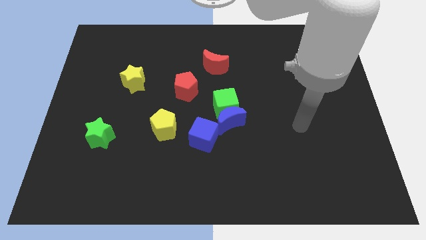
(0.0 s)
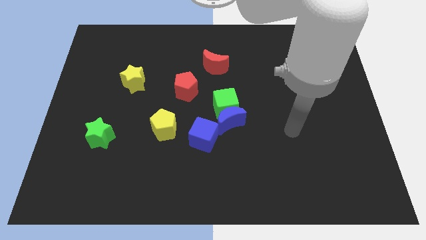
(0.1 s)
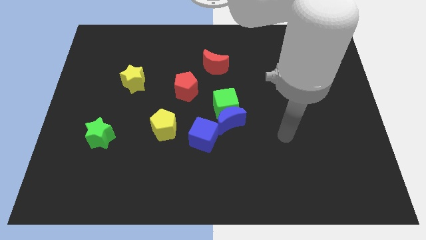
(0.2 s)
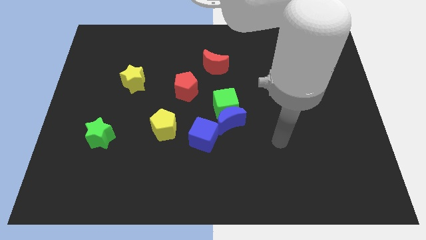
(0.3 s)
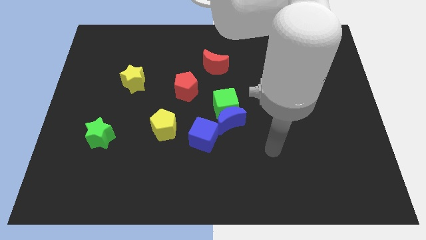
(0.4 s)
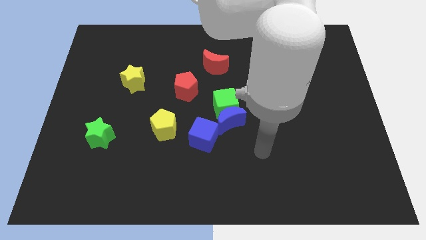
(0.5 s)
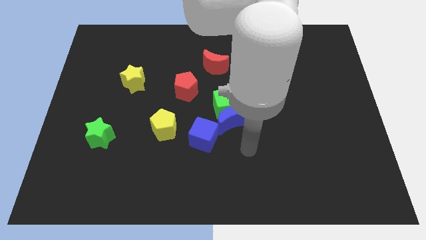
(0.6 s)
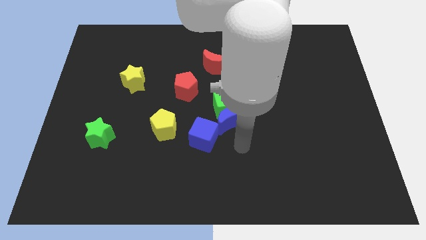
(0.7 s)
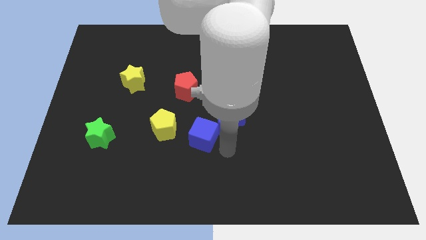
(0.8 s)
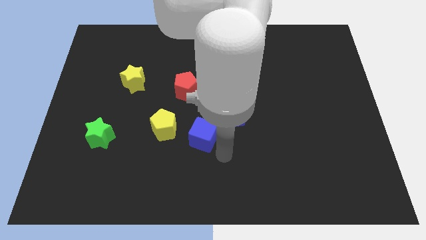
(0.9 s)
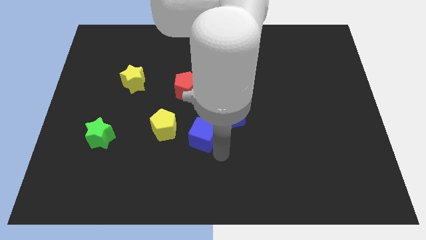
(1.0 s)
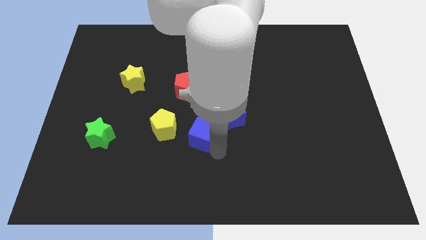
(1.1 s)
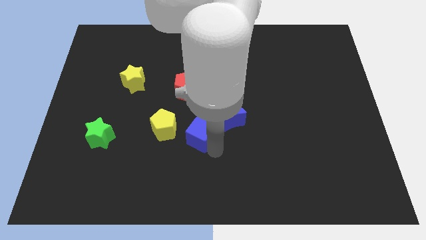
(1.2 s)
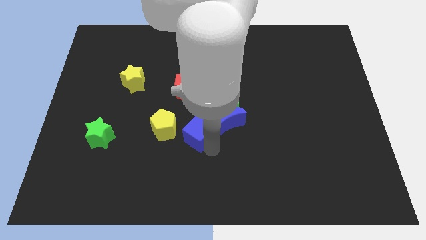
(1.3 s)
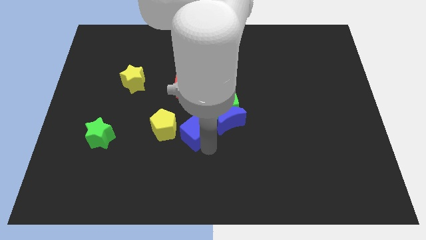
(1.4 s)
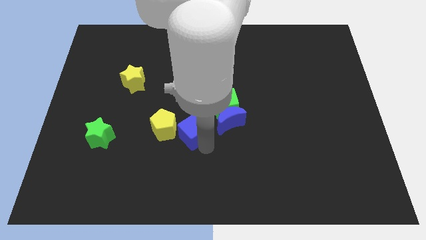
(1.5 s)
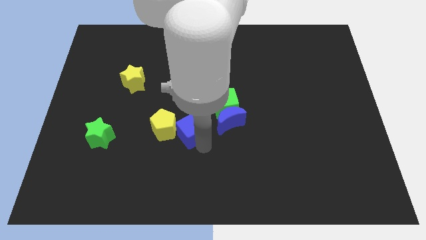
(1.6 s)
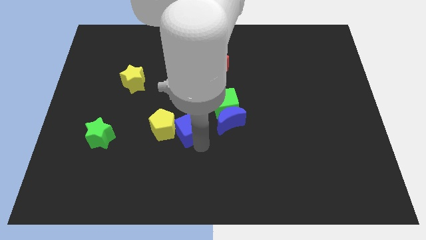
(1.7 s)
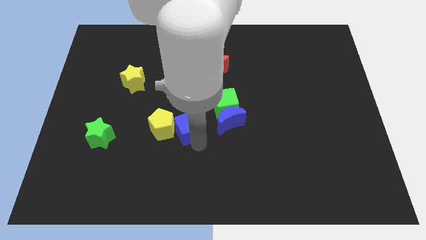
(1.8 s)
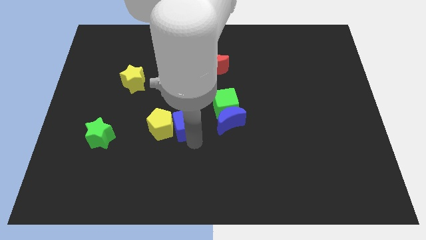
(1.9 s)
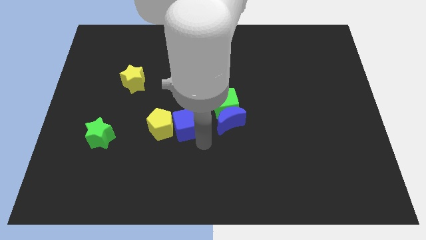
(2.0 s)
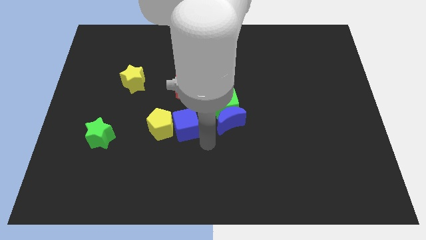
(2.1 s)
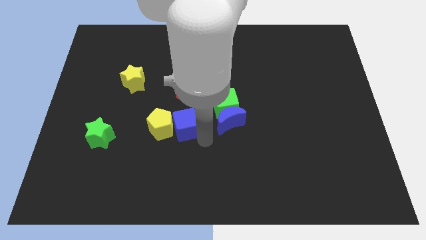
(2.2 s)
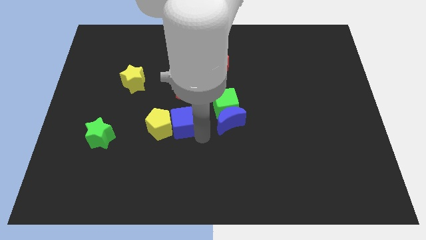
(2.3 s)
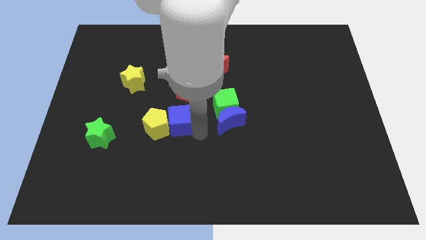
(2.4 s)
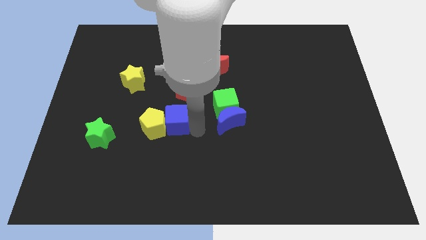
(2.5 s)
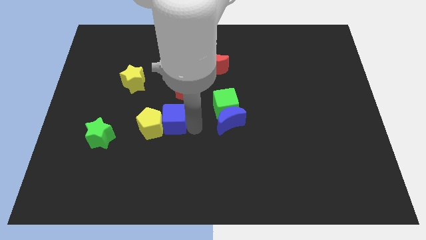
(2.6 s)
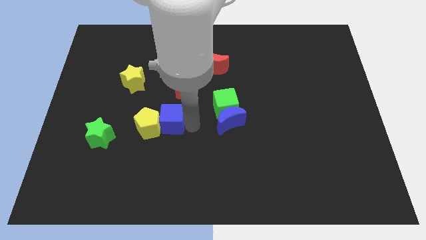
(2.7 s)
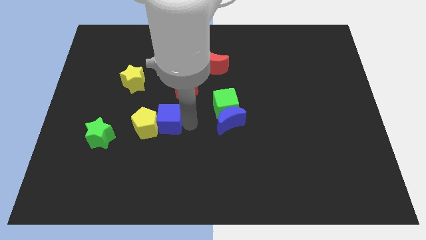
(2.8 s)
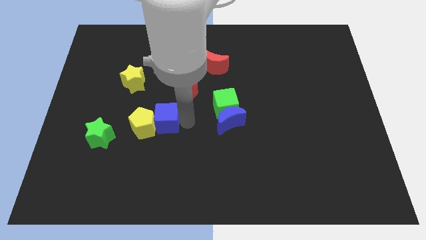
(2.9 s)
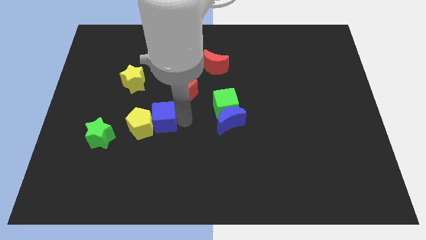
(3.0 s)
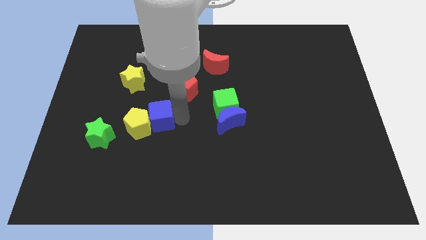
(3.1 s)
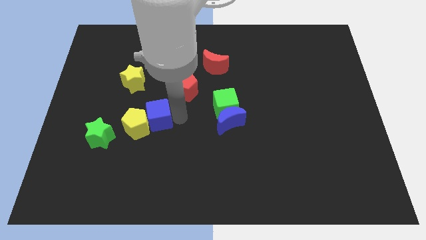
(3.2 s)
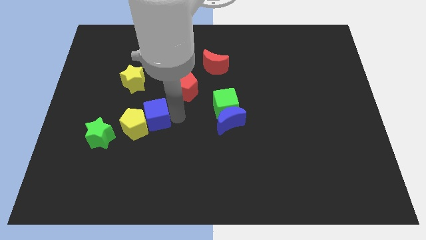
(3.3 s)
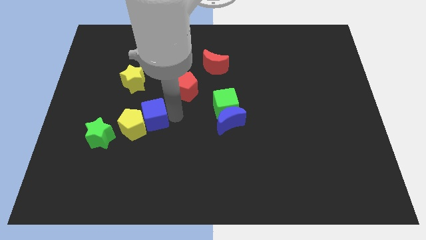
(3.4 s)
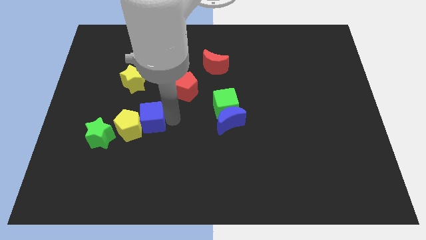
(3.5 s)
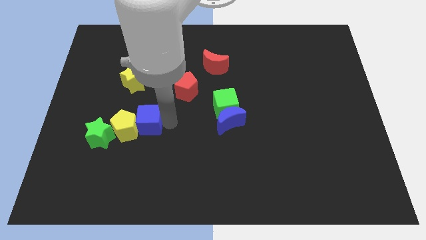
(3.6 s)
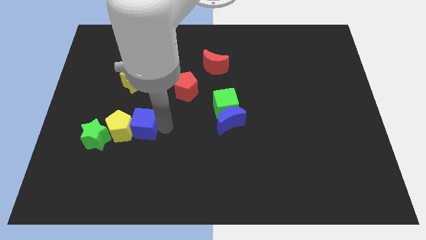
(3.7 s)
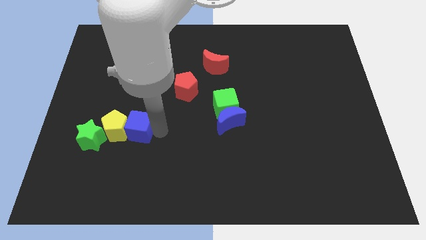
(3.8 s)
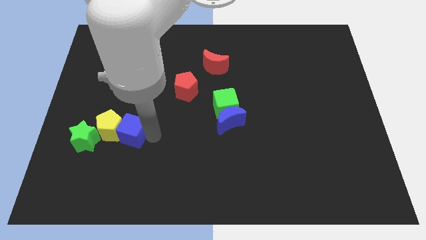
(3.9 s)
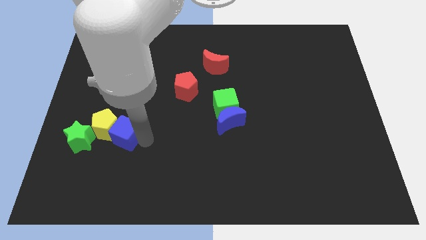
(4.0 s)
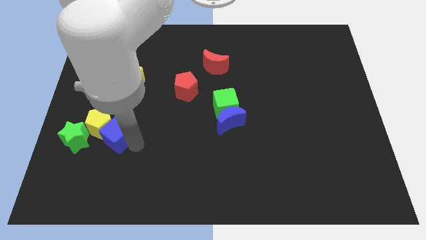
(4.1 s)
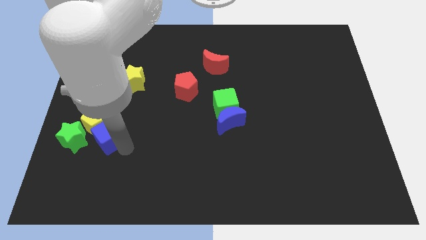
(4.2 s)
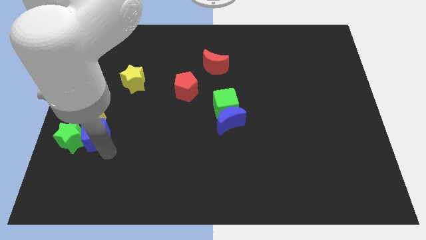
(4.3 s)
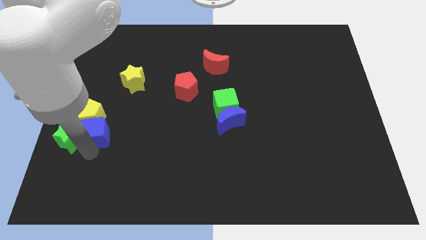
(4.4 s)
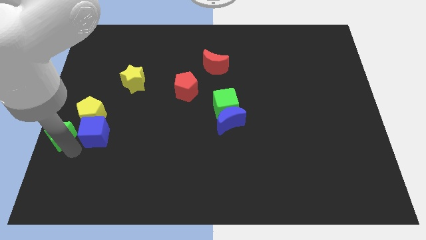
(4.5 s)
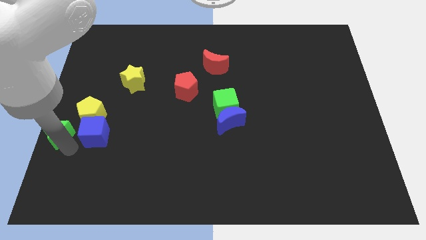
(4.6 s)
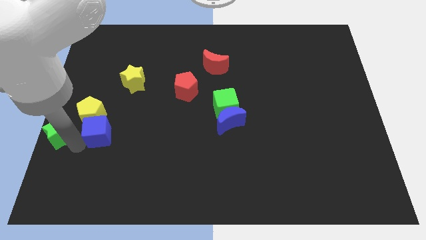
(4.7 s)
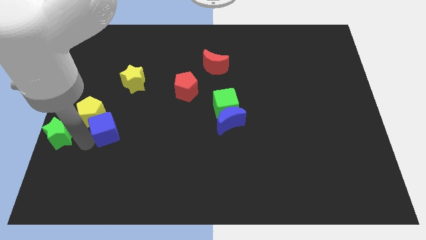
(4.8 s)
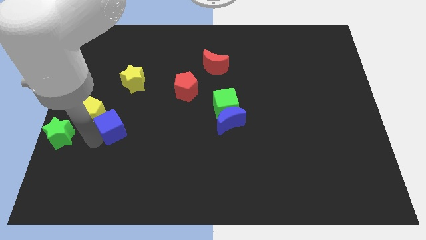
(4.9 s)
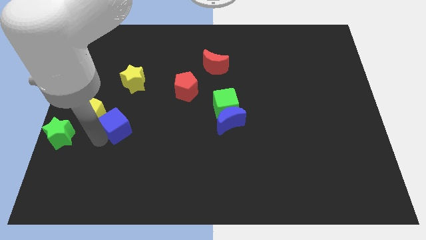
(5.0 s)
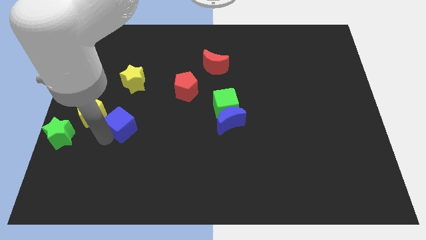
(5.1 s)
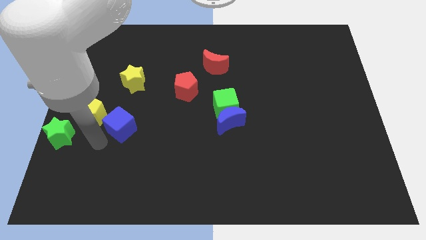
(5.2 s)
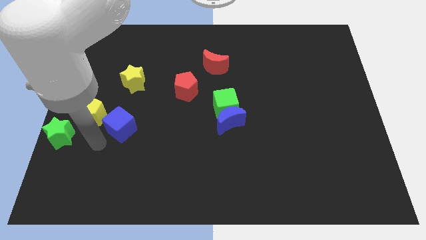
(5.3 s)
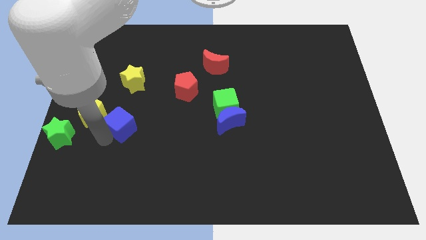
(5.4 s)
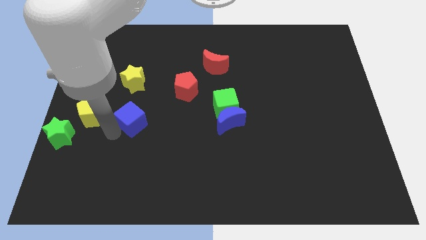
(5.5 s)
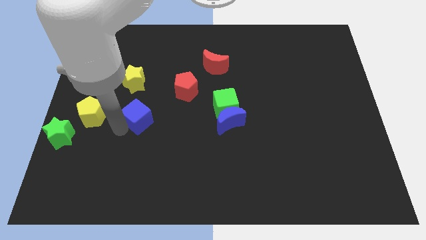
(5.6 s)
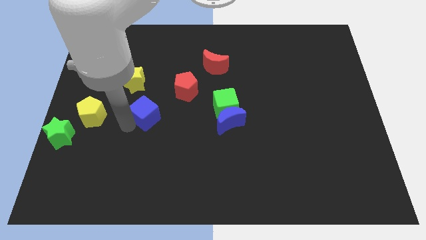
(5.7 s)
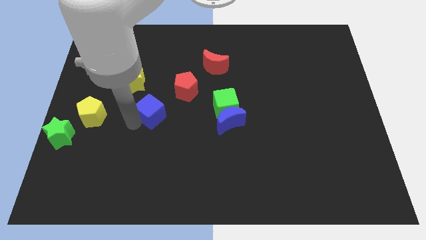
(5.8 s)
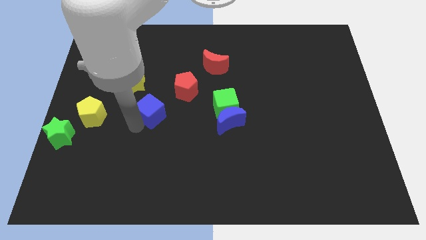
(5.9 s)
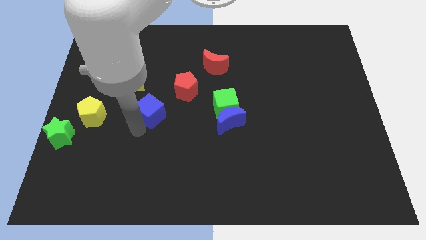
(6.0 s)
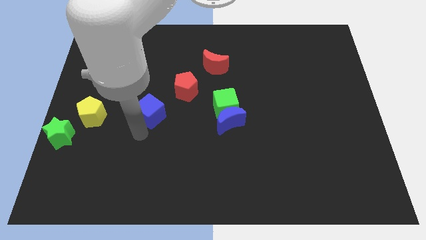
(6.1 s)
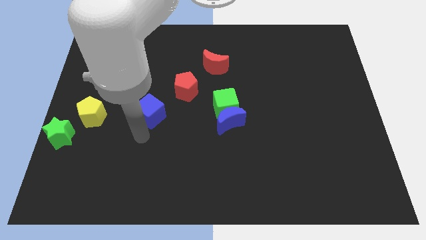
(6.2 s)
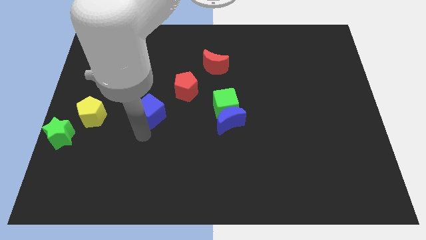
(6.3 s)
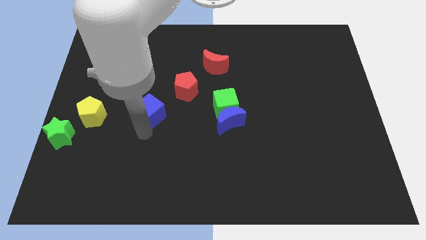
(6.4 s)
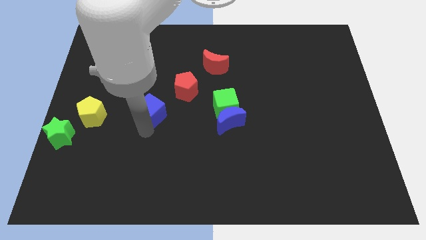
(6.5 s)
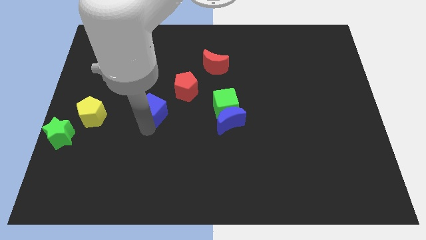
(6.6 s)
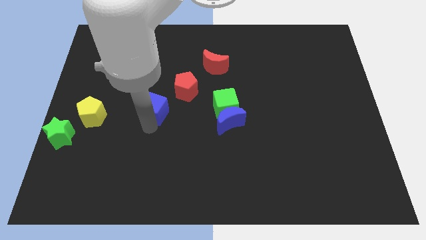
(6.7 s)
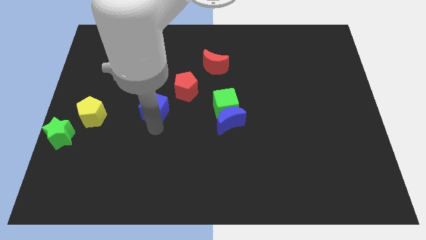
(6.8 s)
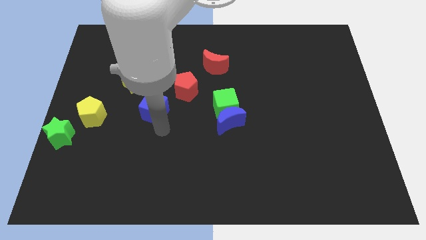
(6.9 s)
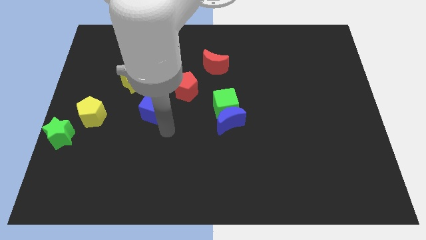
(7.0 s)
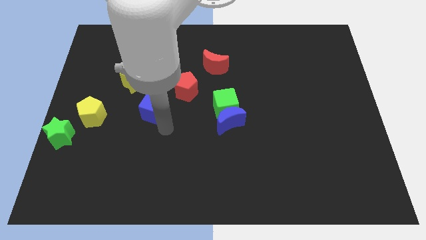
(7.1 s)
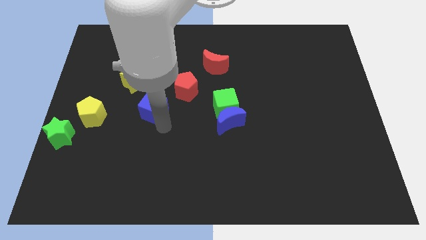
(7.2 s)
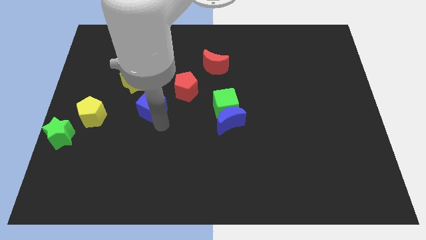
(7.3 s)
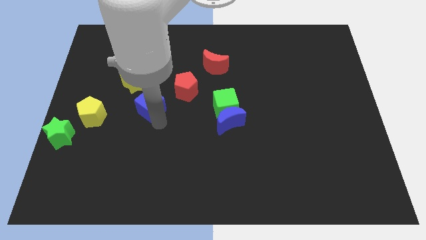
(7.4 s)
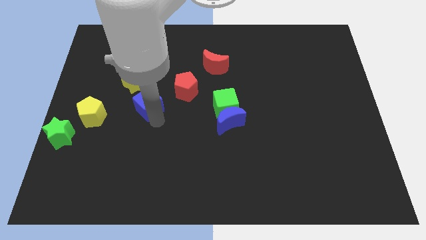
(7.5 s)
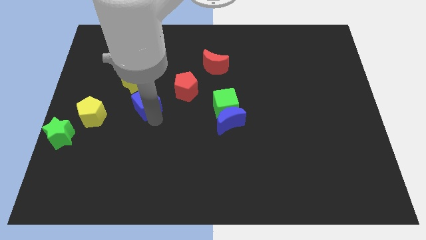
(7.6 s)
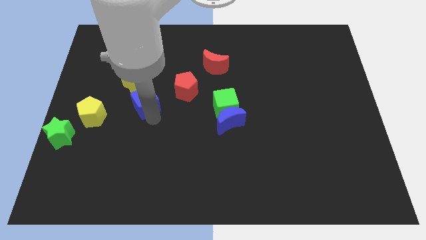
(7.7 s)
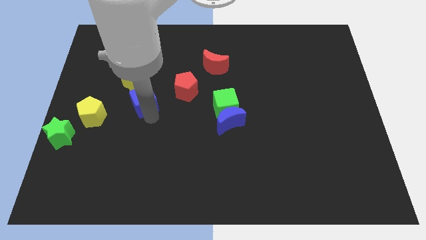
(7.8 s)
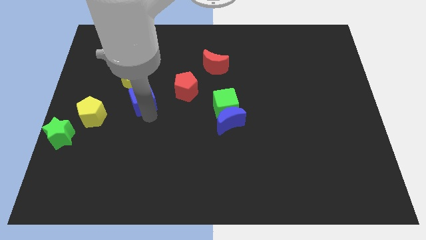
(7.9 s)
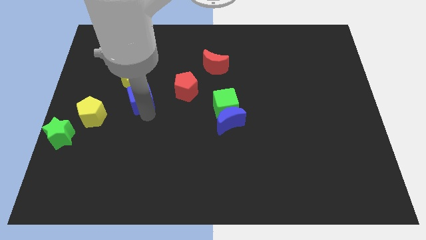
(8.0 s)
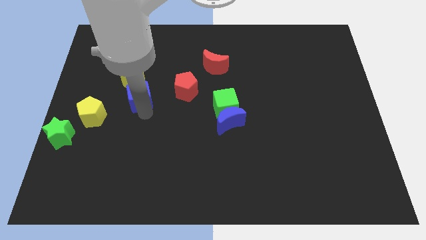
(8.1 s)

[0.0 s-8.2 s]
push the blue cube towards the yellow star
